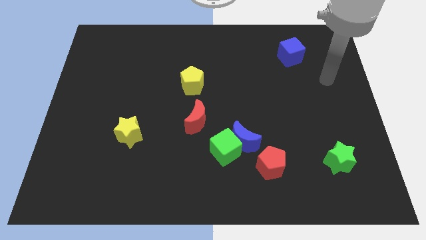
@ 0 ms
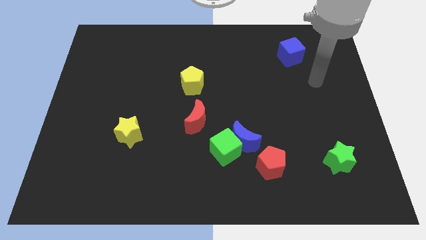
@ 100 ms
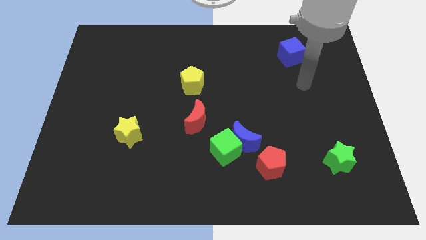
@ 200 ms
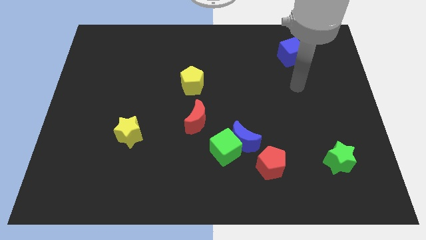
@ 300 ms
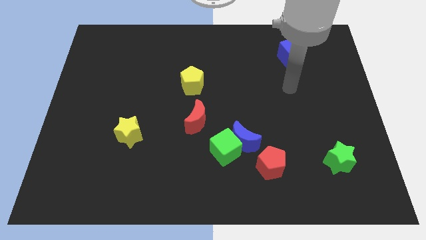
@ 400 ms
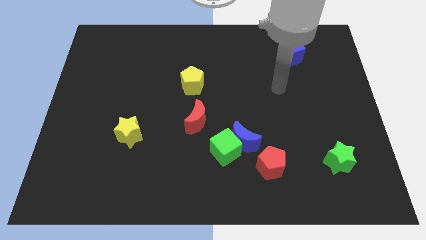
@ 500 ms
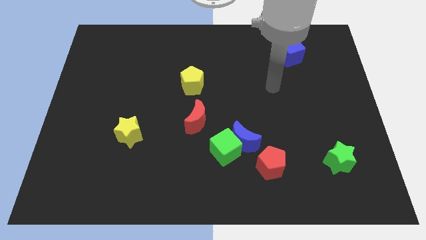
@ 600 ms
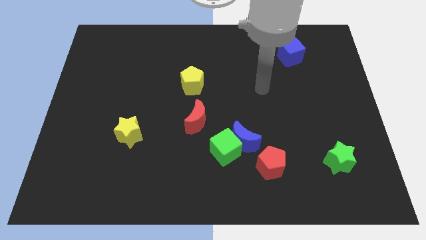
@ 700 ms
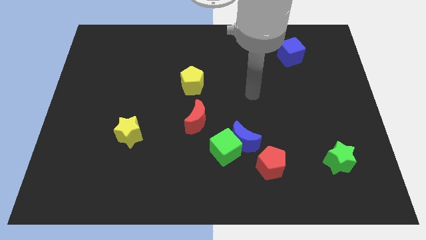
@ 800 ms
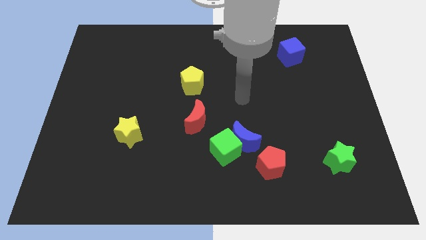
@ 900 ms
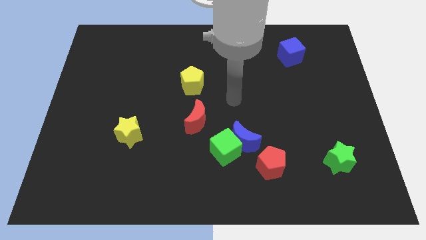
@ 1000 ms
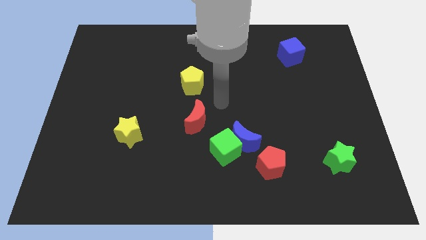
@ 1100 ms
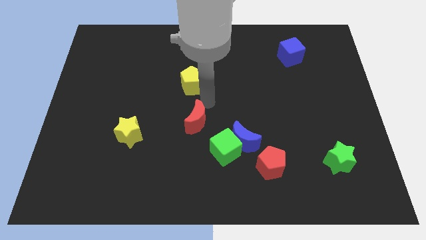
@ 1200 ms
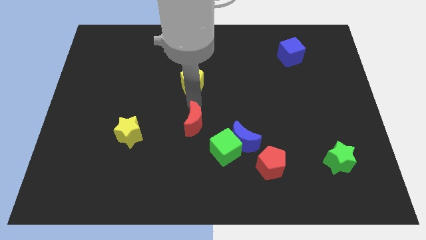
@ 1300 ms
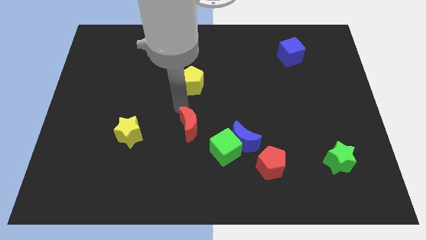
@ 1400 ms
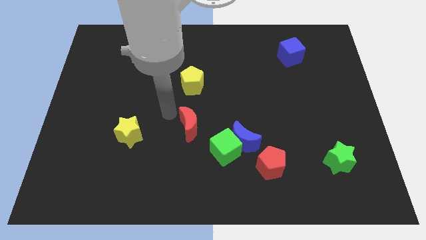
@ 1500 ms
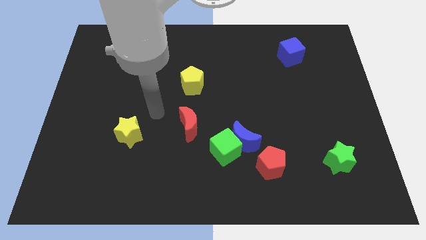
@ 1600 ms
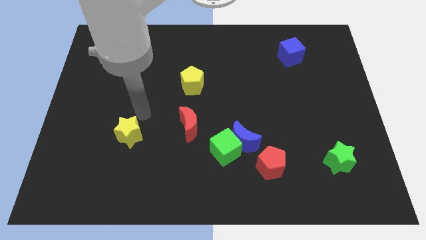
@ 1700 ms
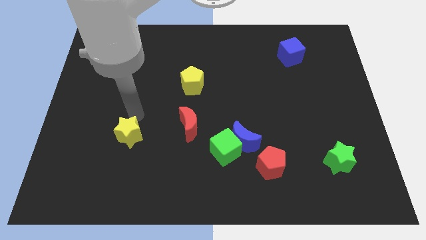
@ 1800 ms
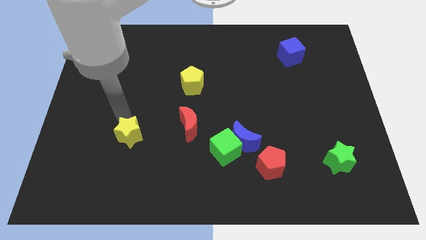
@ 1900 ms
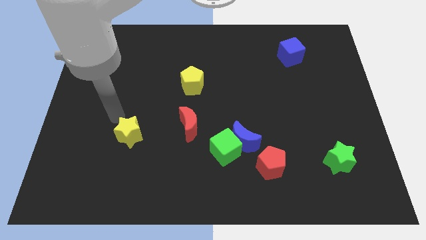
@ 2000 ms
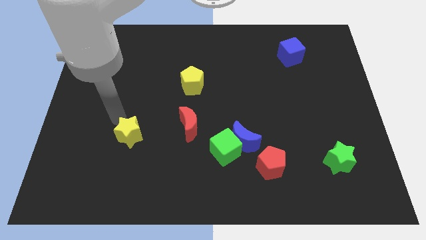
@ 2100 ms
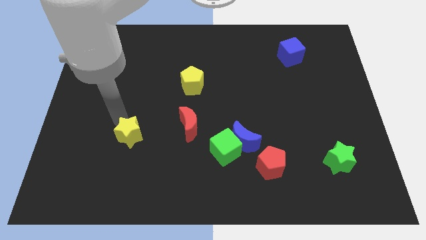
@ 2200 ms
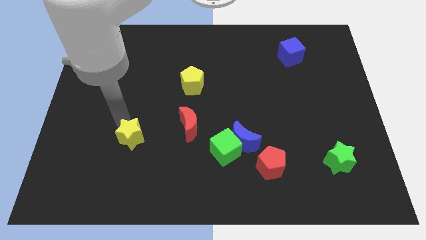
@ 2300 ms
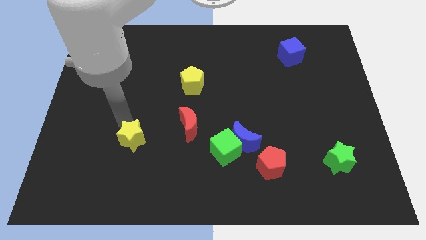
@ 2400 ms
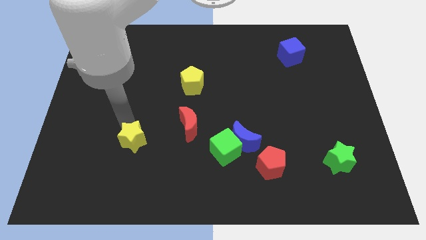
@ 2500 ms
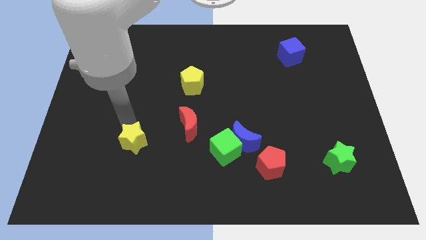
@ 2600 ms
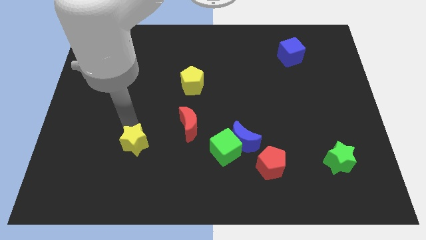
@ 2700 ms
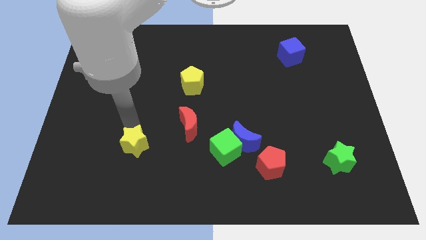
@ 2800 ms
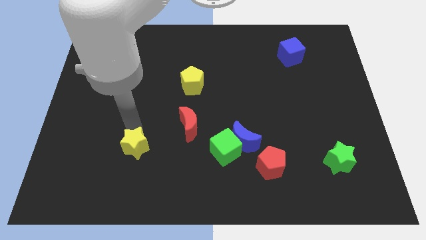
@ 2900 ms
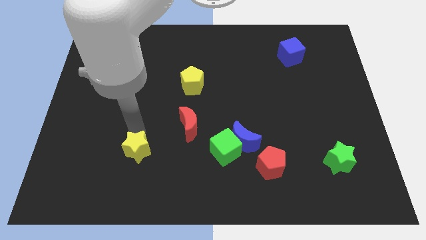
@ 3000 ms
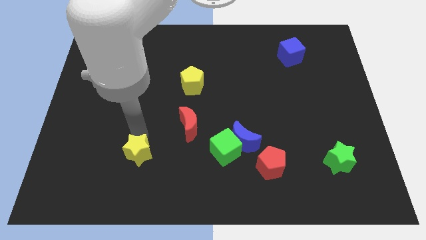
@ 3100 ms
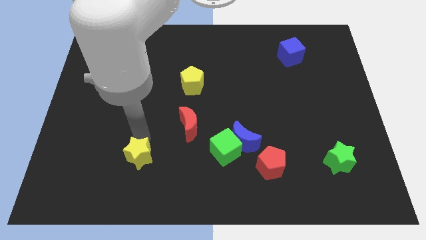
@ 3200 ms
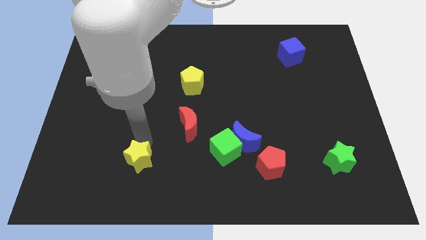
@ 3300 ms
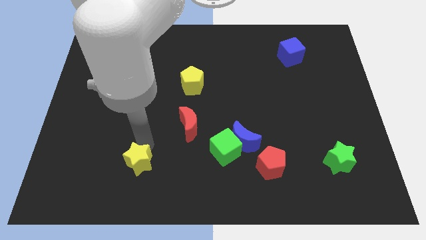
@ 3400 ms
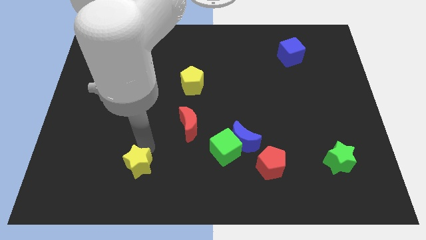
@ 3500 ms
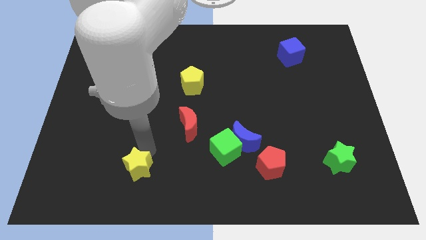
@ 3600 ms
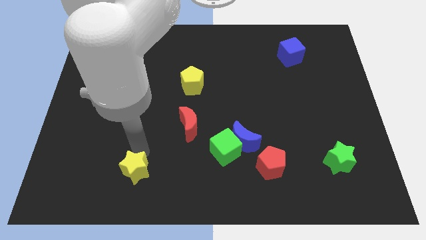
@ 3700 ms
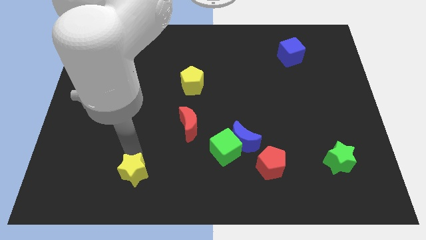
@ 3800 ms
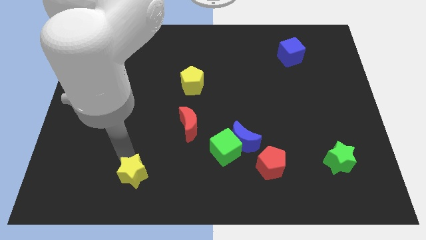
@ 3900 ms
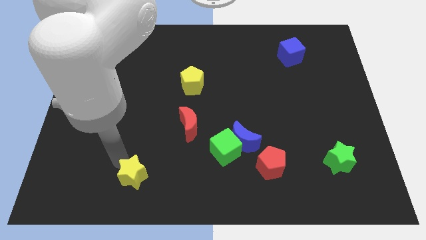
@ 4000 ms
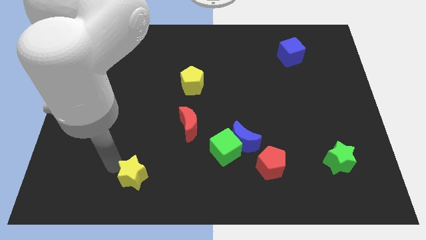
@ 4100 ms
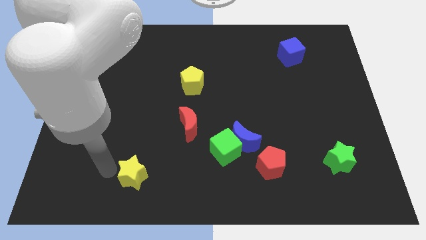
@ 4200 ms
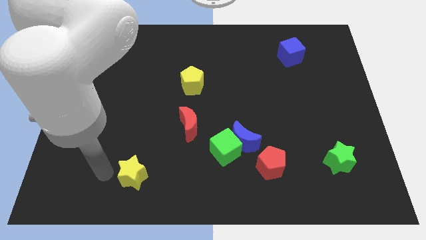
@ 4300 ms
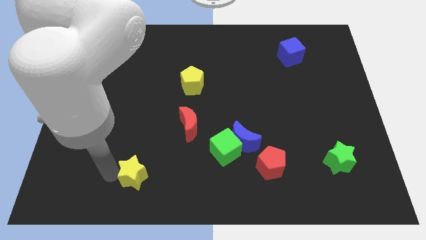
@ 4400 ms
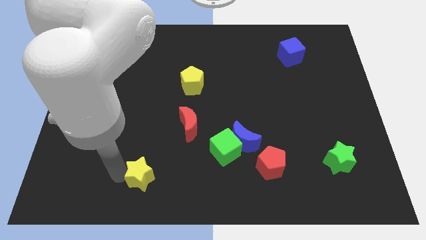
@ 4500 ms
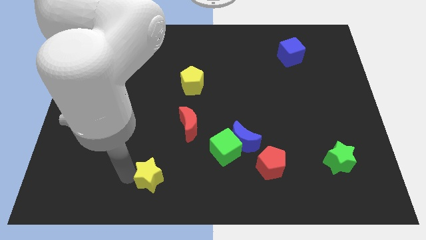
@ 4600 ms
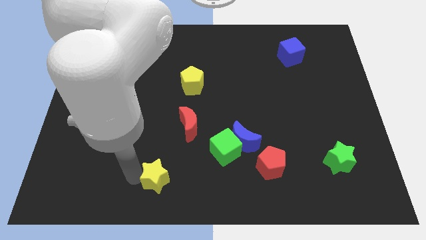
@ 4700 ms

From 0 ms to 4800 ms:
push the yellow star to the bottom

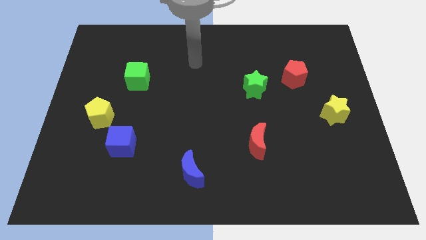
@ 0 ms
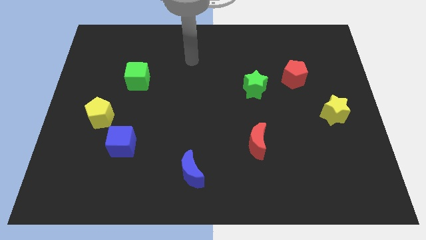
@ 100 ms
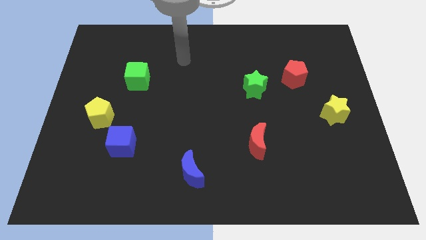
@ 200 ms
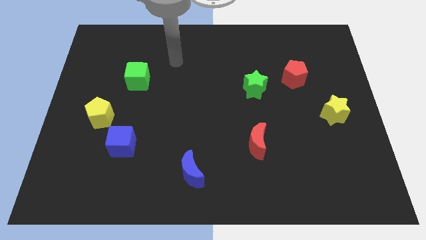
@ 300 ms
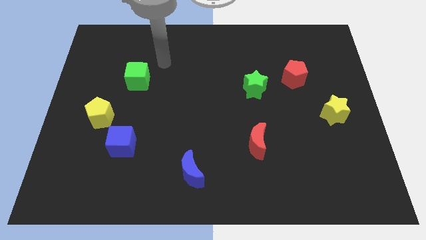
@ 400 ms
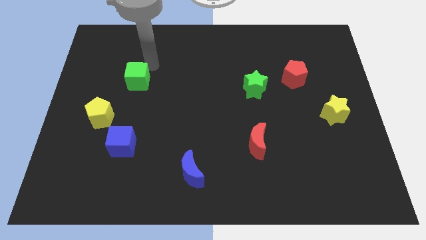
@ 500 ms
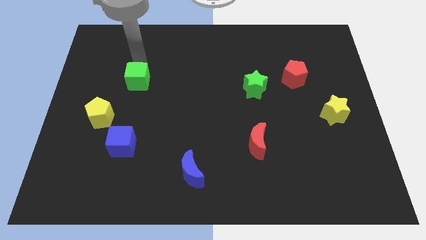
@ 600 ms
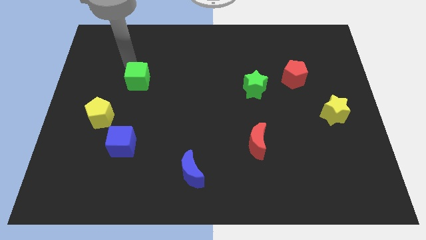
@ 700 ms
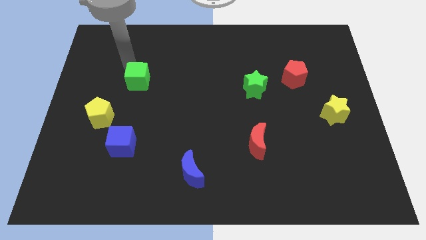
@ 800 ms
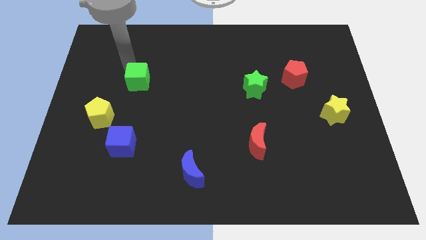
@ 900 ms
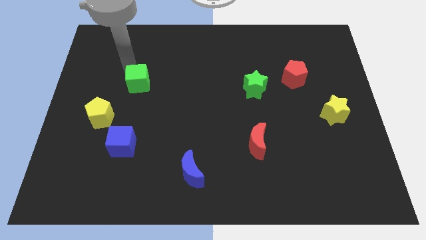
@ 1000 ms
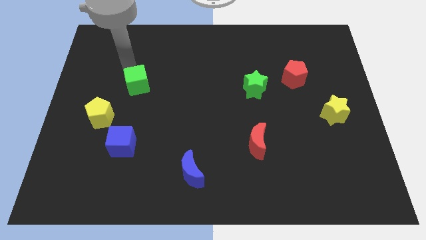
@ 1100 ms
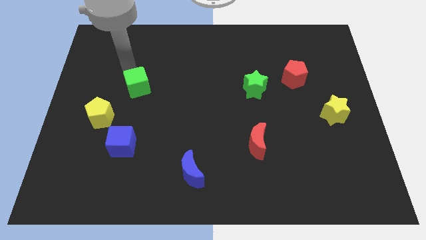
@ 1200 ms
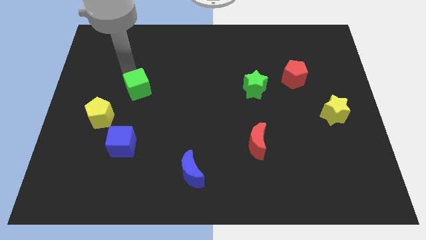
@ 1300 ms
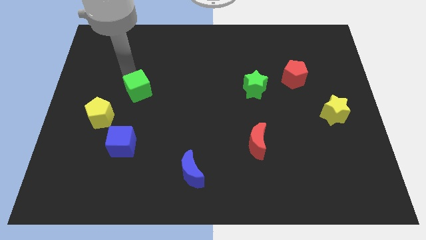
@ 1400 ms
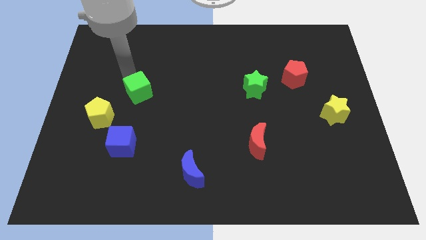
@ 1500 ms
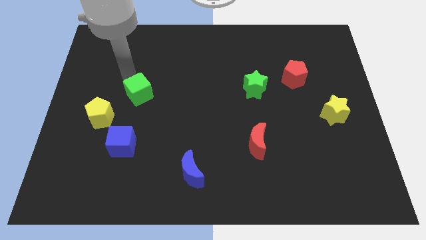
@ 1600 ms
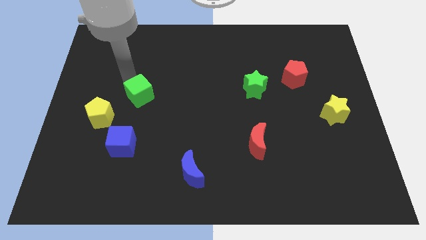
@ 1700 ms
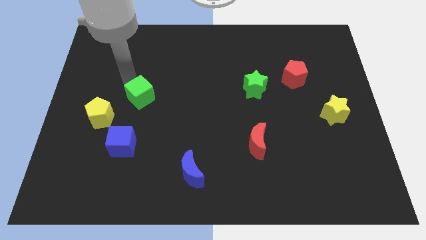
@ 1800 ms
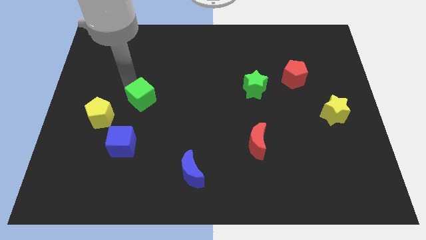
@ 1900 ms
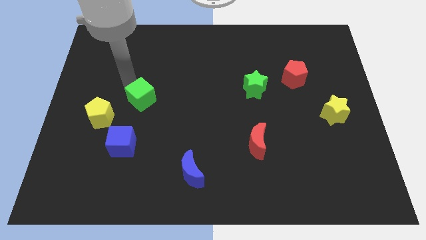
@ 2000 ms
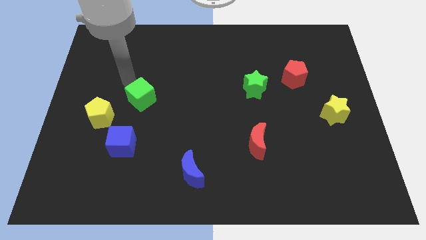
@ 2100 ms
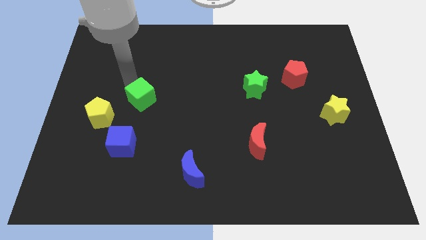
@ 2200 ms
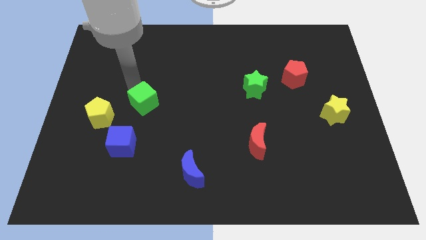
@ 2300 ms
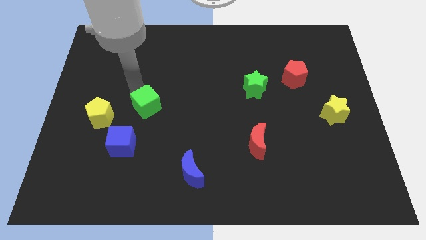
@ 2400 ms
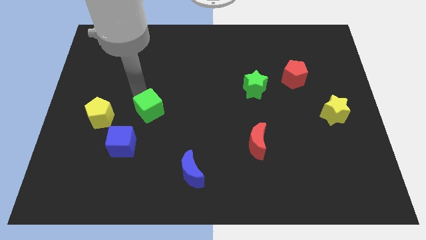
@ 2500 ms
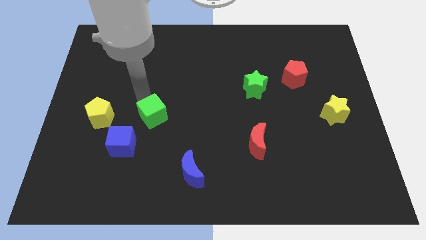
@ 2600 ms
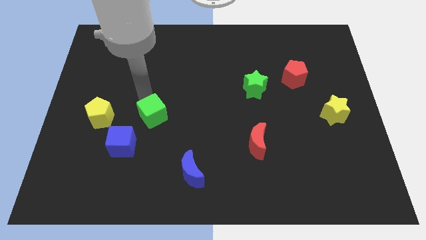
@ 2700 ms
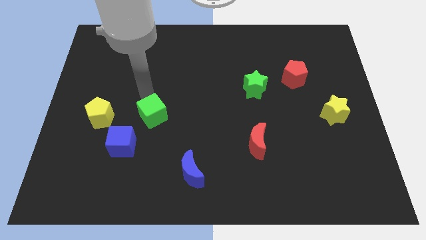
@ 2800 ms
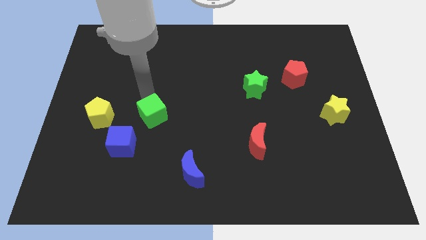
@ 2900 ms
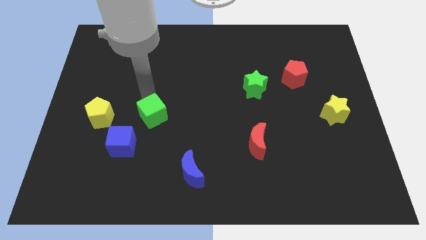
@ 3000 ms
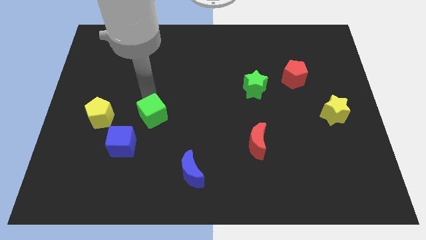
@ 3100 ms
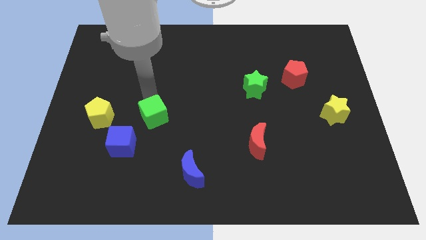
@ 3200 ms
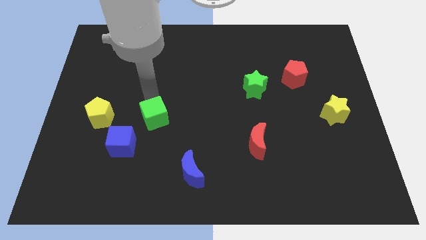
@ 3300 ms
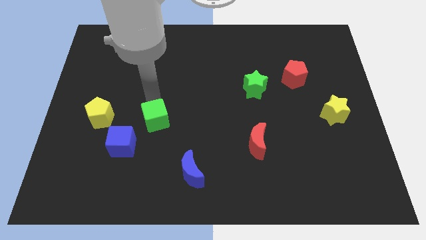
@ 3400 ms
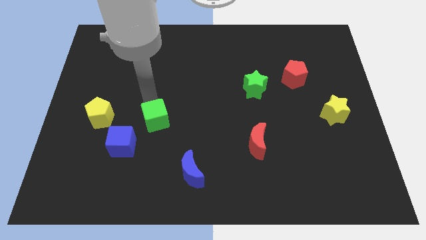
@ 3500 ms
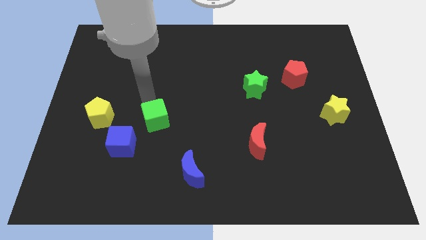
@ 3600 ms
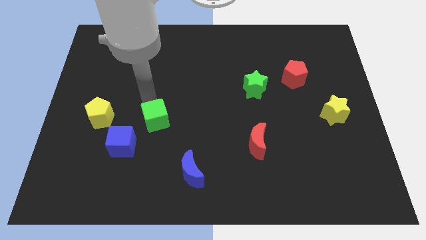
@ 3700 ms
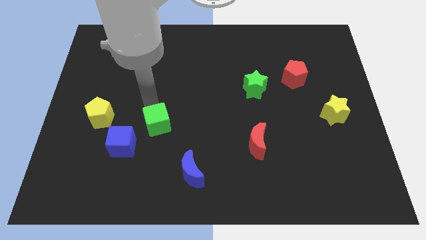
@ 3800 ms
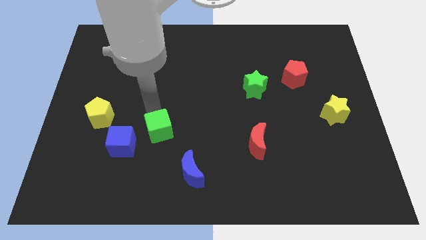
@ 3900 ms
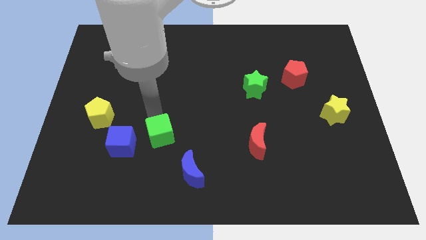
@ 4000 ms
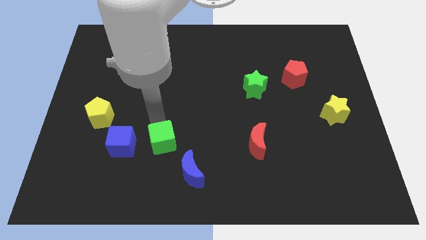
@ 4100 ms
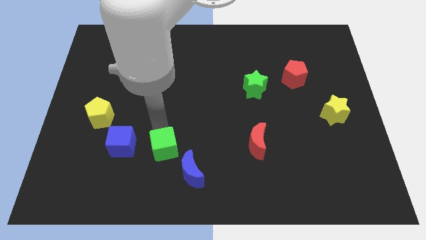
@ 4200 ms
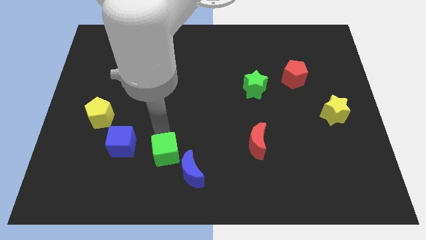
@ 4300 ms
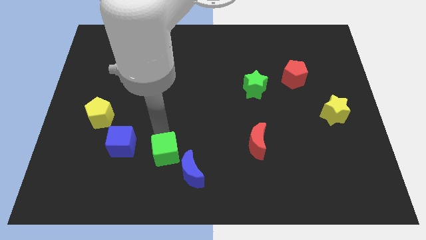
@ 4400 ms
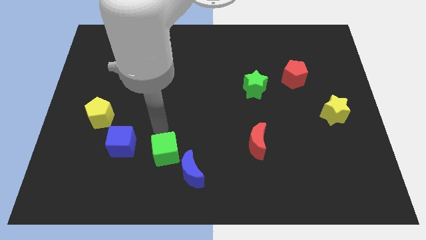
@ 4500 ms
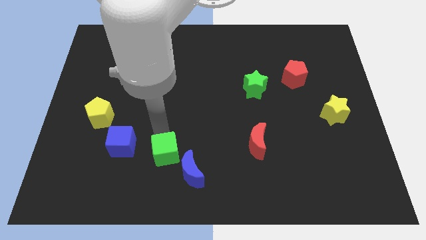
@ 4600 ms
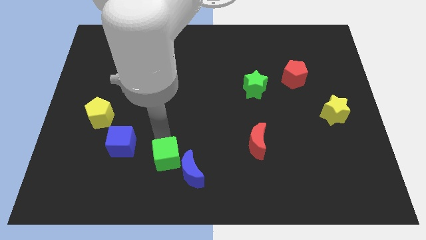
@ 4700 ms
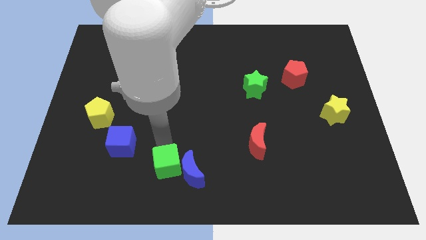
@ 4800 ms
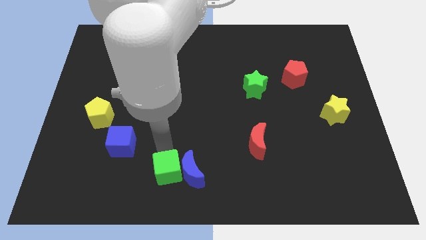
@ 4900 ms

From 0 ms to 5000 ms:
move the green cube to the bottom
